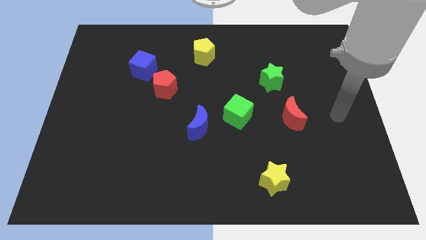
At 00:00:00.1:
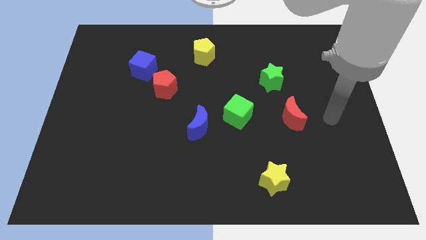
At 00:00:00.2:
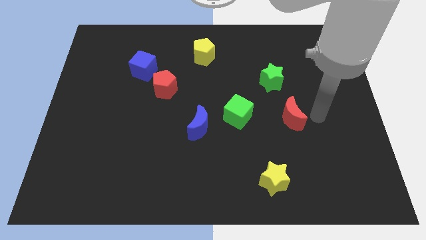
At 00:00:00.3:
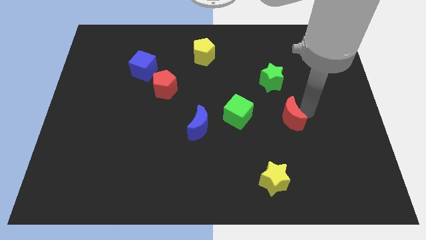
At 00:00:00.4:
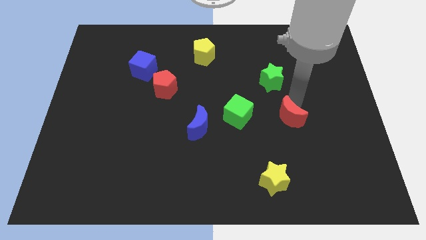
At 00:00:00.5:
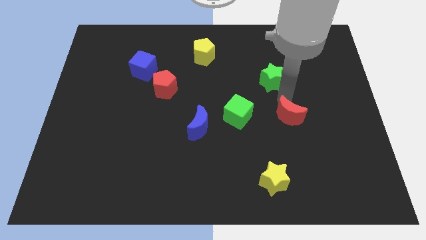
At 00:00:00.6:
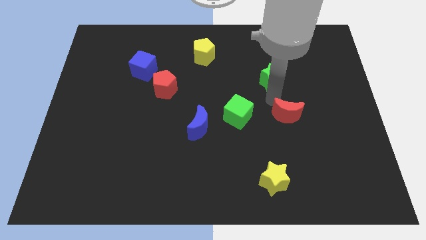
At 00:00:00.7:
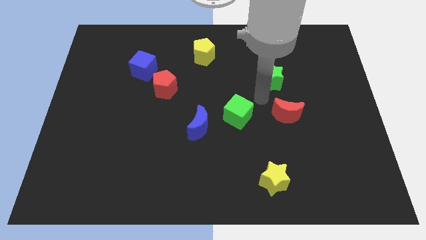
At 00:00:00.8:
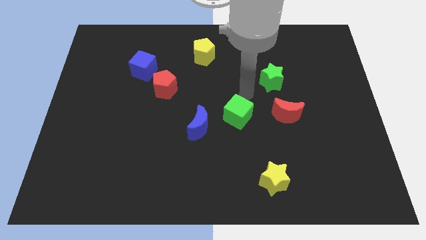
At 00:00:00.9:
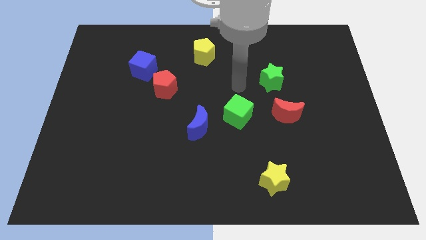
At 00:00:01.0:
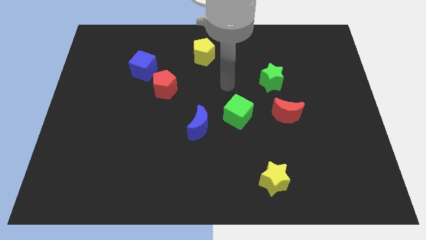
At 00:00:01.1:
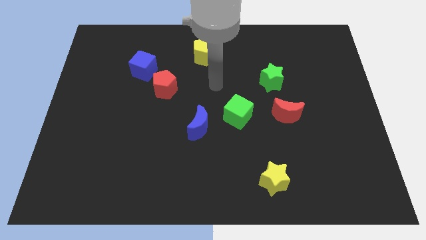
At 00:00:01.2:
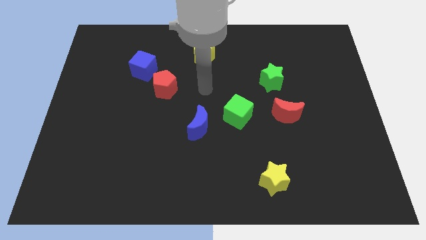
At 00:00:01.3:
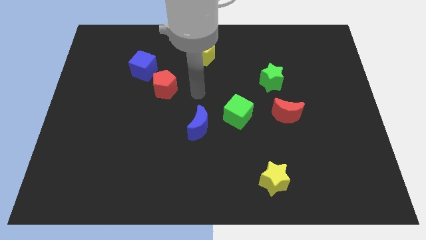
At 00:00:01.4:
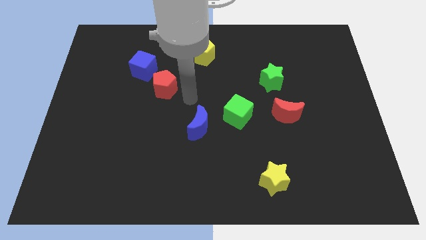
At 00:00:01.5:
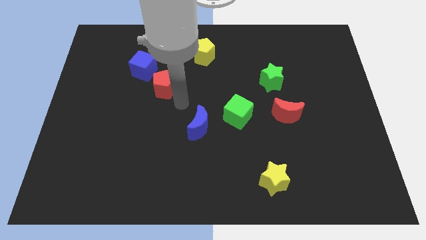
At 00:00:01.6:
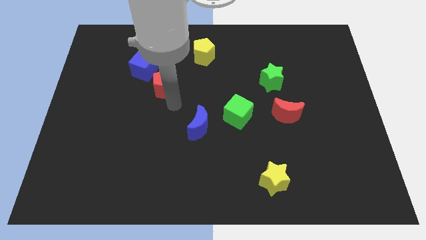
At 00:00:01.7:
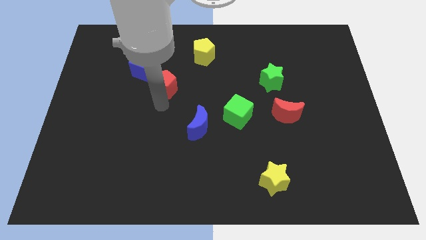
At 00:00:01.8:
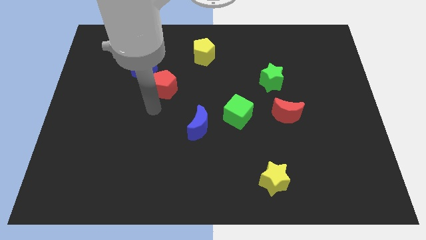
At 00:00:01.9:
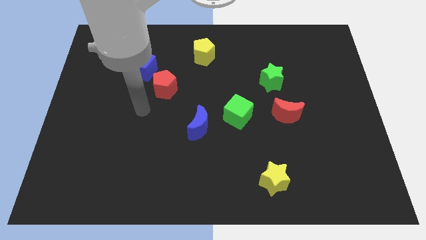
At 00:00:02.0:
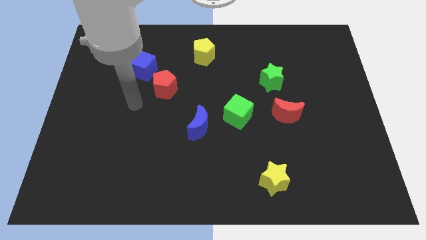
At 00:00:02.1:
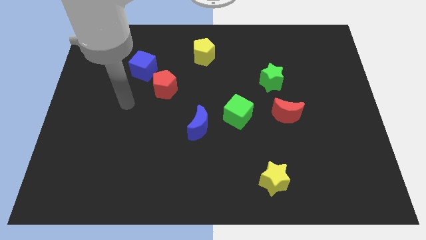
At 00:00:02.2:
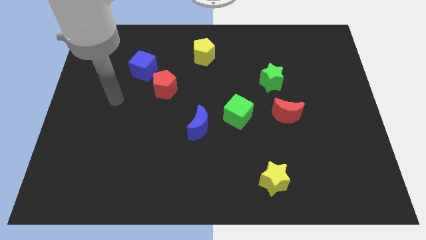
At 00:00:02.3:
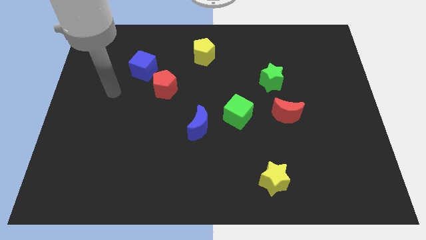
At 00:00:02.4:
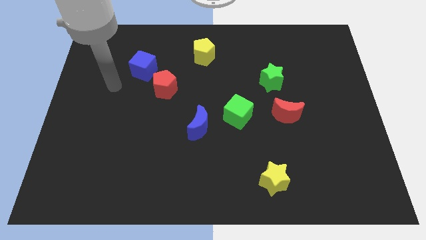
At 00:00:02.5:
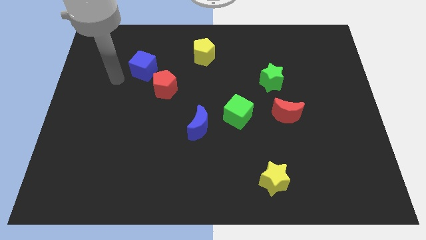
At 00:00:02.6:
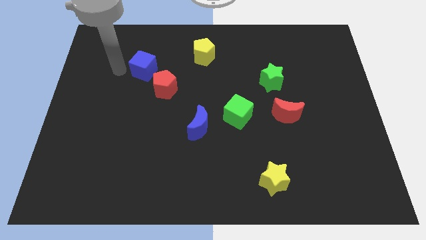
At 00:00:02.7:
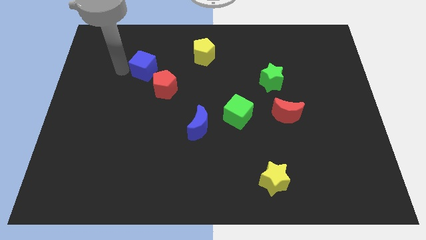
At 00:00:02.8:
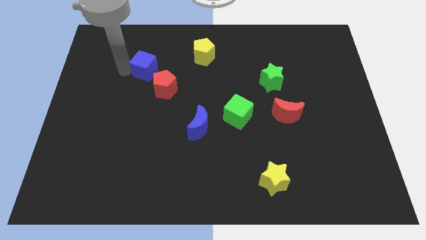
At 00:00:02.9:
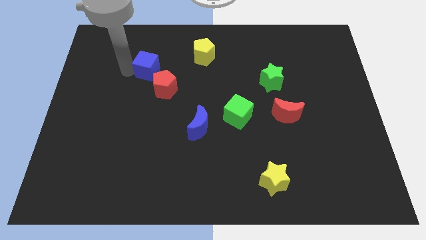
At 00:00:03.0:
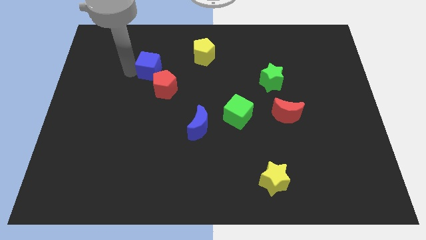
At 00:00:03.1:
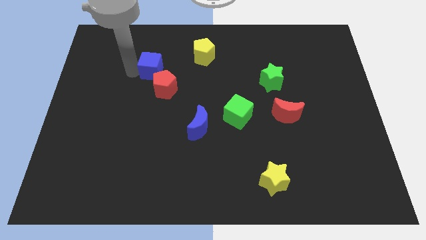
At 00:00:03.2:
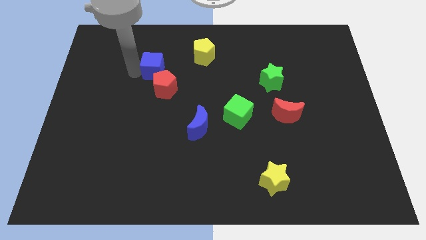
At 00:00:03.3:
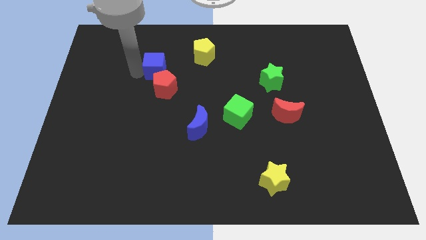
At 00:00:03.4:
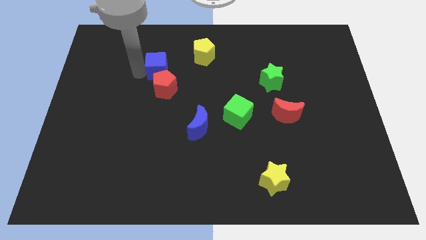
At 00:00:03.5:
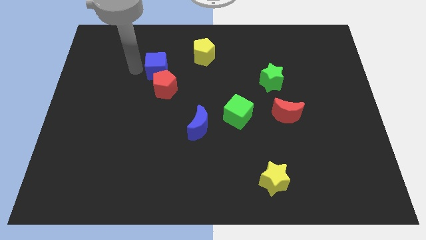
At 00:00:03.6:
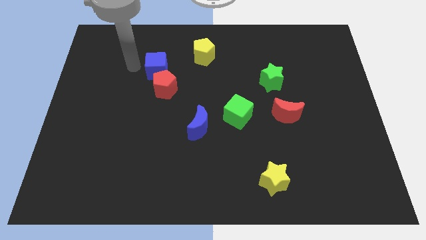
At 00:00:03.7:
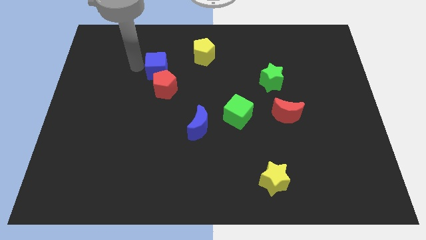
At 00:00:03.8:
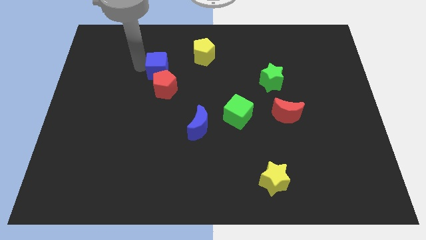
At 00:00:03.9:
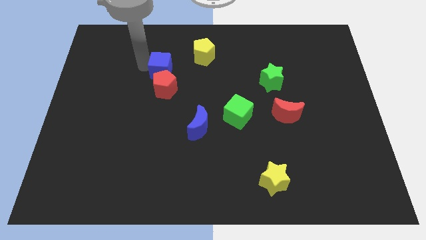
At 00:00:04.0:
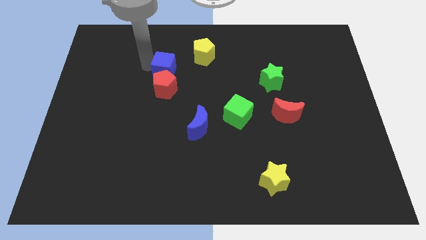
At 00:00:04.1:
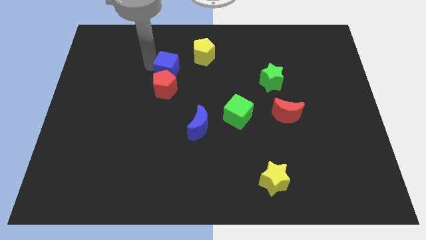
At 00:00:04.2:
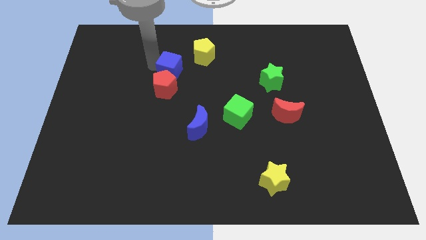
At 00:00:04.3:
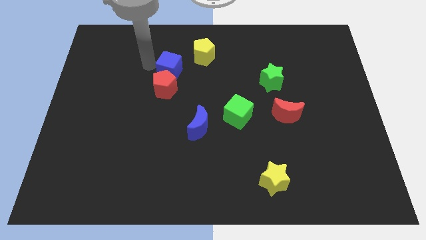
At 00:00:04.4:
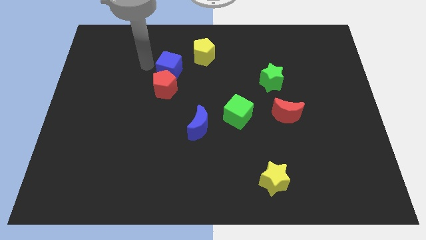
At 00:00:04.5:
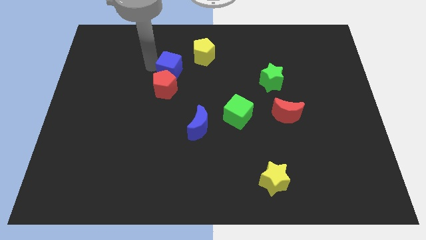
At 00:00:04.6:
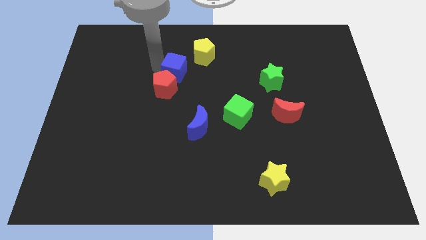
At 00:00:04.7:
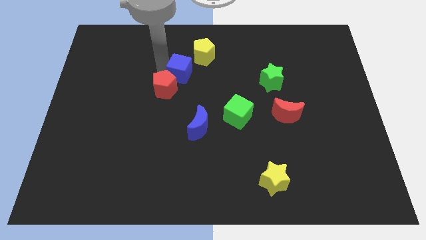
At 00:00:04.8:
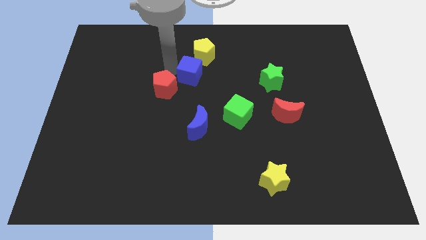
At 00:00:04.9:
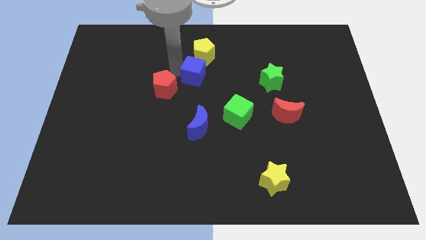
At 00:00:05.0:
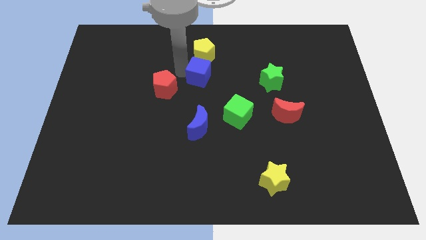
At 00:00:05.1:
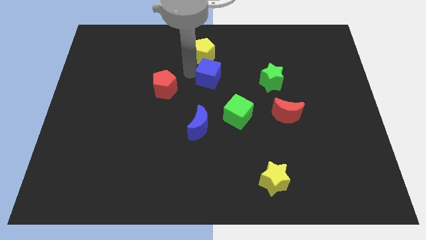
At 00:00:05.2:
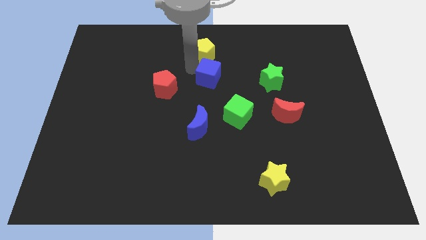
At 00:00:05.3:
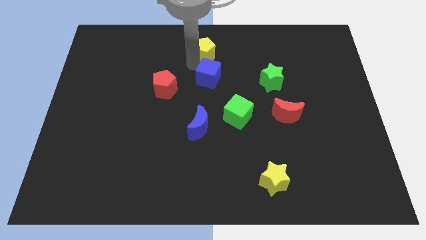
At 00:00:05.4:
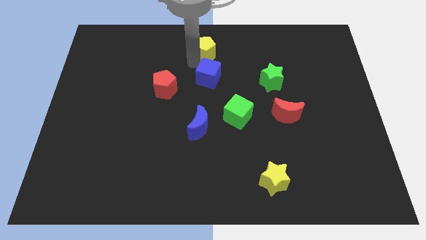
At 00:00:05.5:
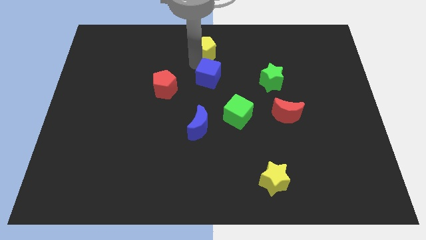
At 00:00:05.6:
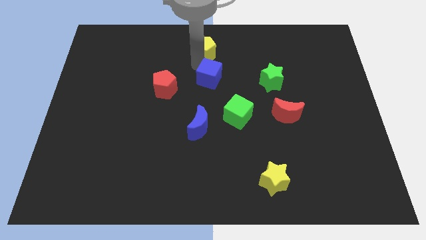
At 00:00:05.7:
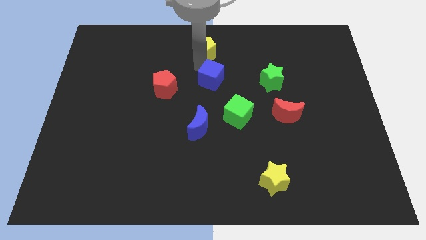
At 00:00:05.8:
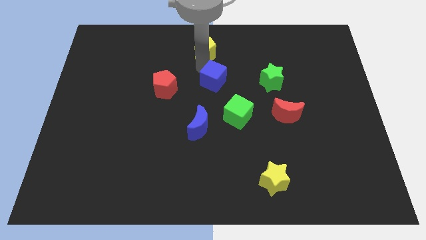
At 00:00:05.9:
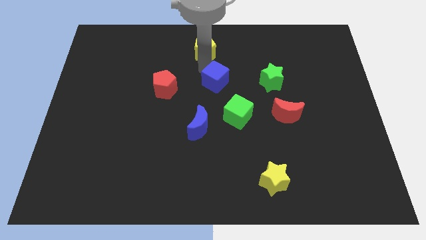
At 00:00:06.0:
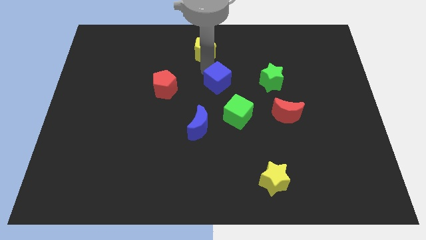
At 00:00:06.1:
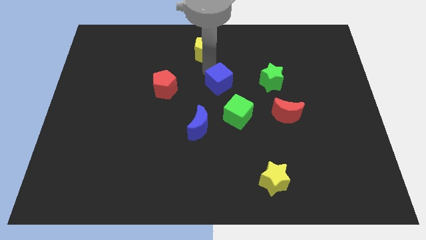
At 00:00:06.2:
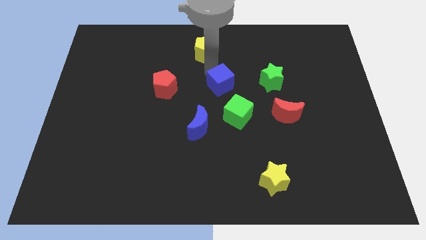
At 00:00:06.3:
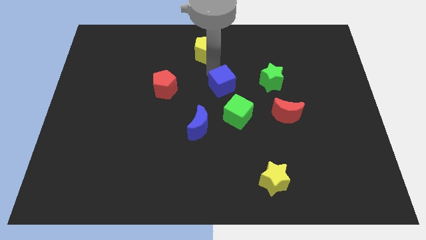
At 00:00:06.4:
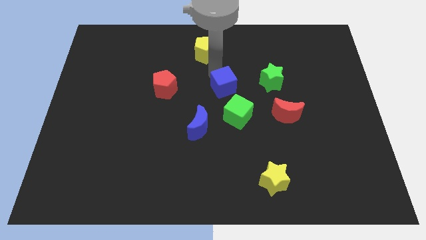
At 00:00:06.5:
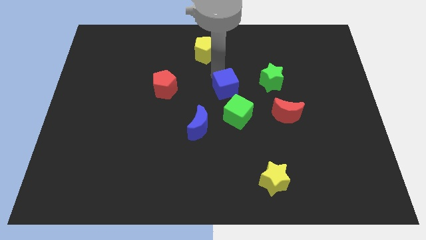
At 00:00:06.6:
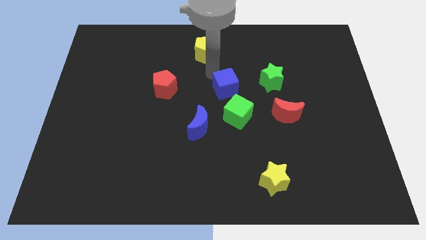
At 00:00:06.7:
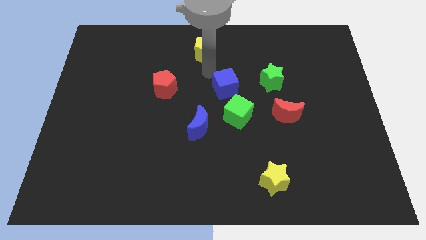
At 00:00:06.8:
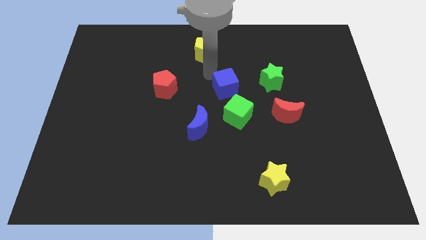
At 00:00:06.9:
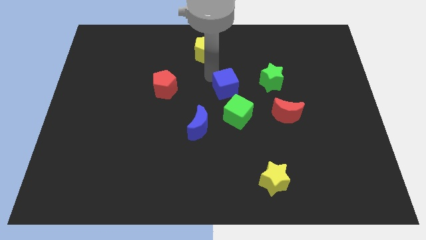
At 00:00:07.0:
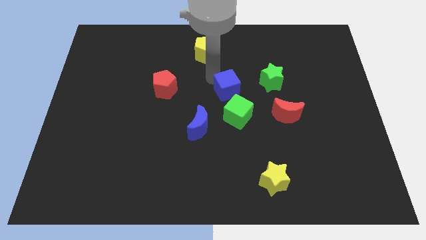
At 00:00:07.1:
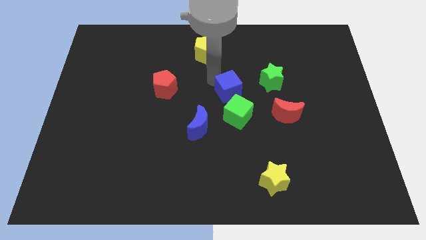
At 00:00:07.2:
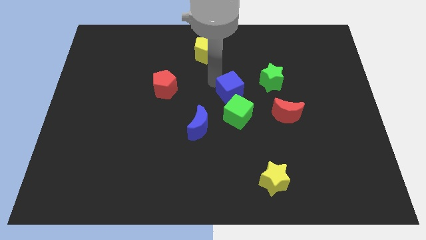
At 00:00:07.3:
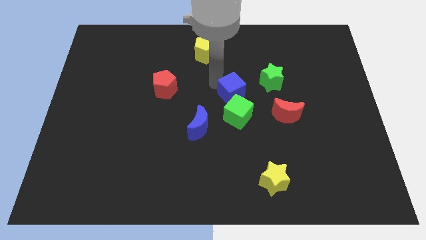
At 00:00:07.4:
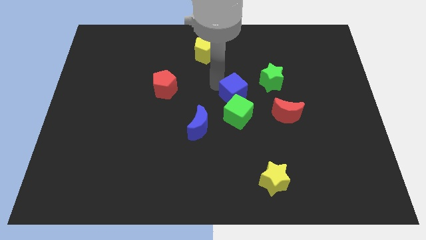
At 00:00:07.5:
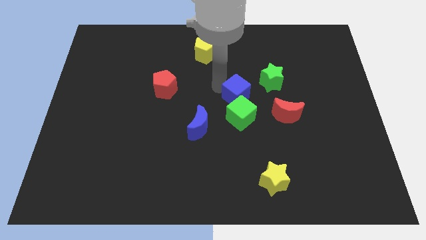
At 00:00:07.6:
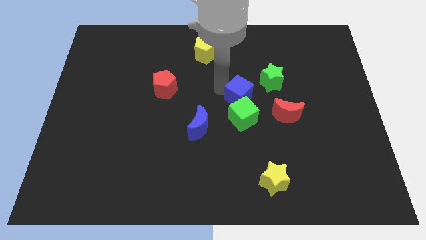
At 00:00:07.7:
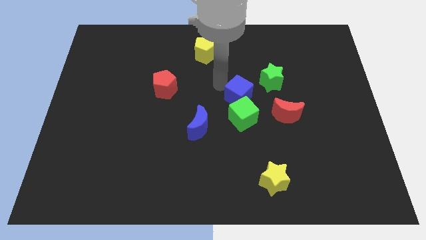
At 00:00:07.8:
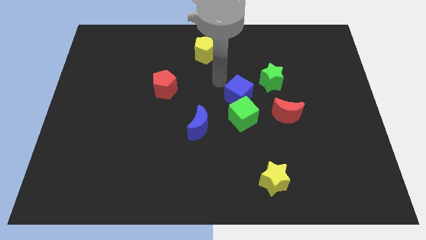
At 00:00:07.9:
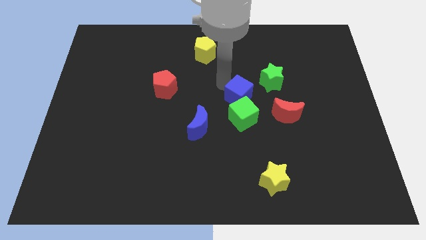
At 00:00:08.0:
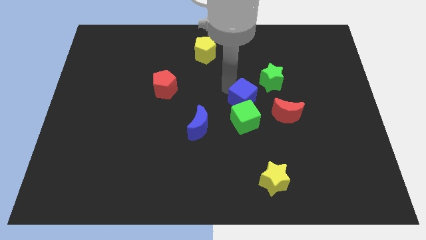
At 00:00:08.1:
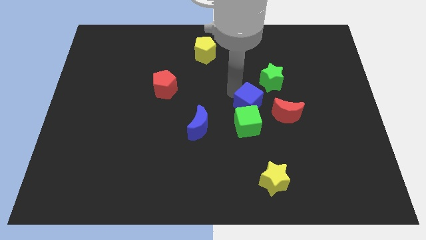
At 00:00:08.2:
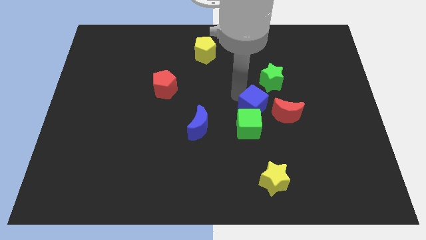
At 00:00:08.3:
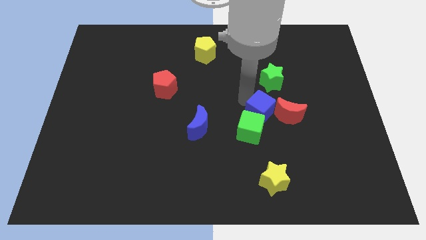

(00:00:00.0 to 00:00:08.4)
put the blue cube to the bottom side of the green star
